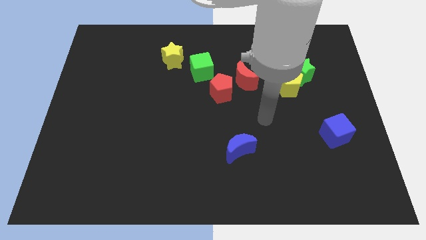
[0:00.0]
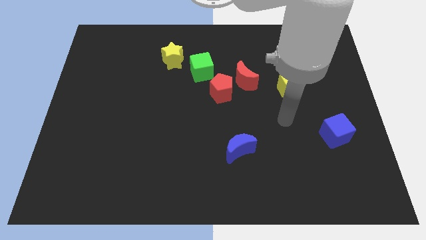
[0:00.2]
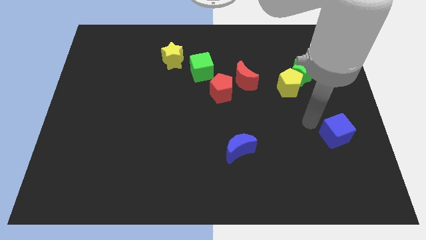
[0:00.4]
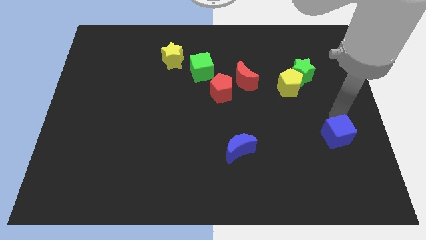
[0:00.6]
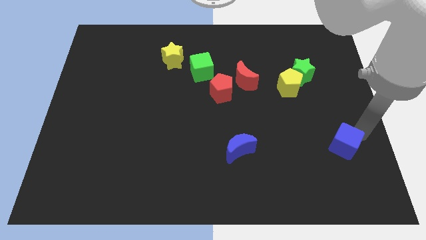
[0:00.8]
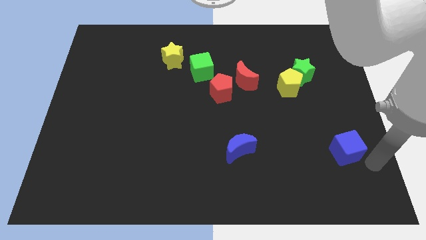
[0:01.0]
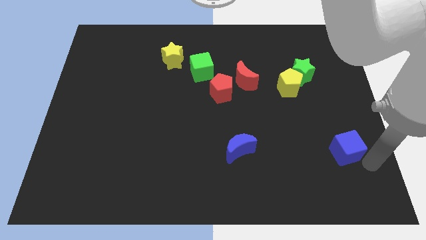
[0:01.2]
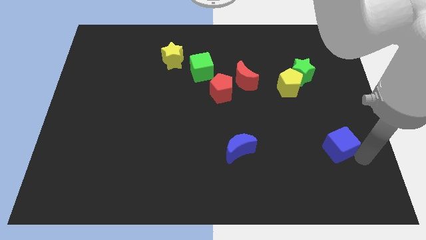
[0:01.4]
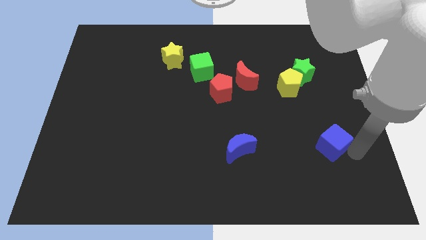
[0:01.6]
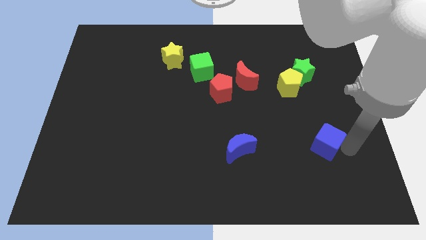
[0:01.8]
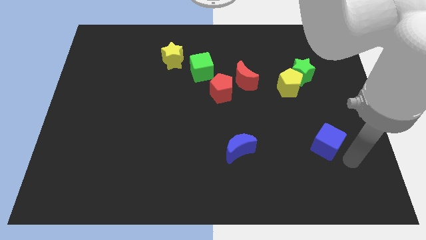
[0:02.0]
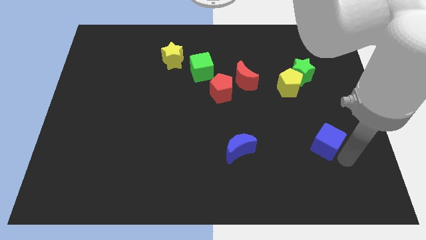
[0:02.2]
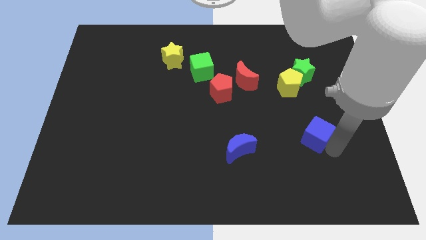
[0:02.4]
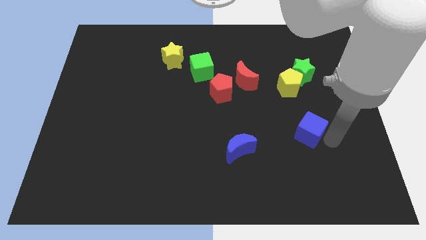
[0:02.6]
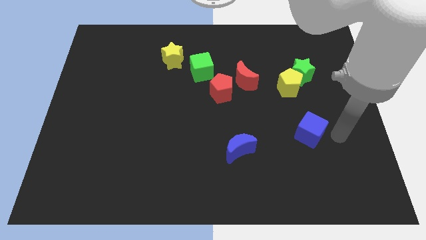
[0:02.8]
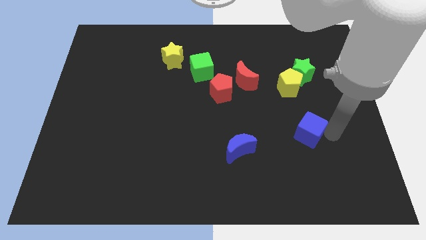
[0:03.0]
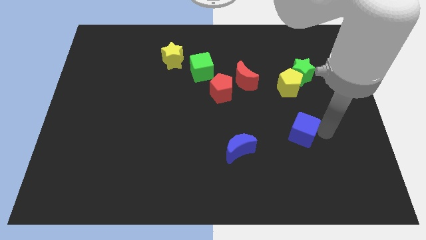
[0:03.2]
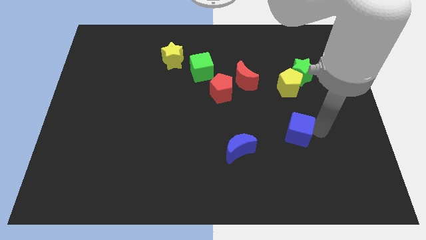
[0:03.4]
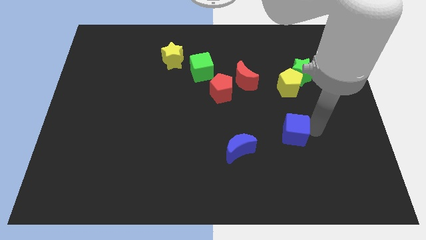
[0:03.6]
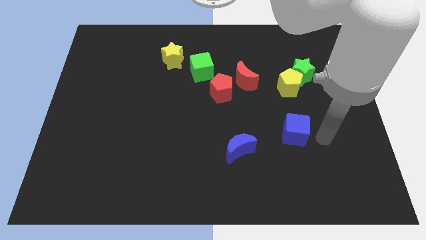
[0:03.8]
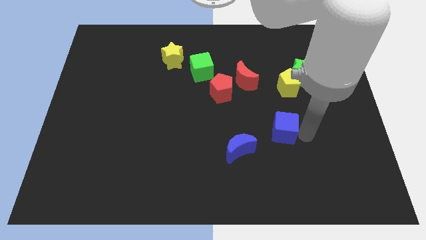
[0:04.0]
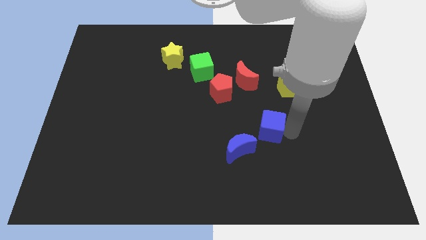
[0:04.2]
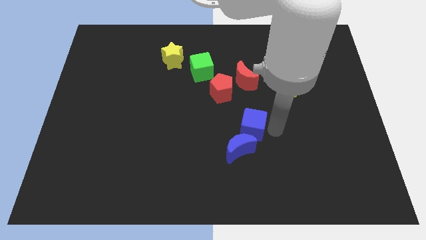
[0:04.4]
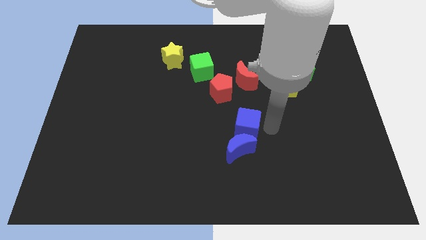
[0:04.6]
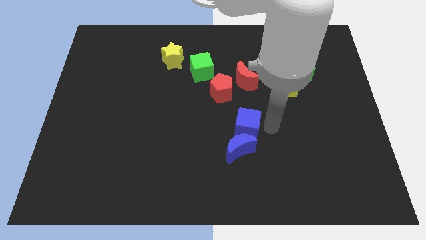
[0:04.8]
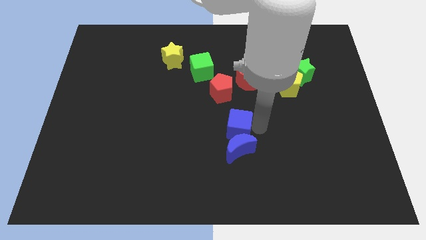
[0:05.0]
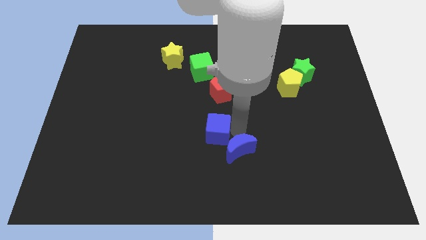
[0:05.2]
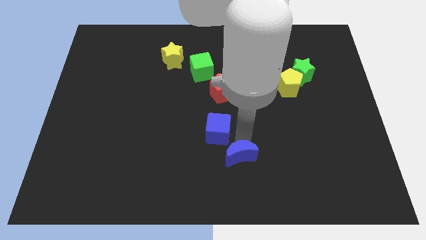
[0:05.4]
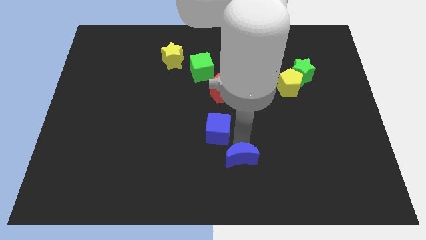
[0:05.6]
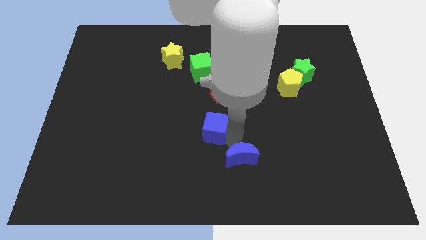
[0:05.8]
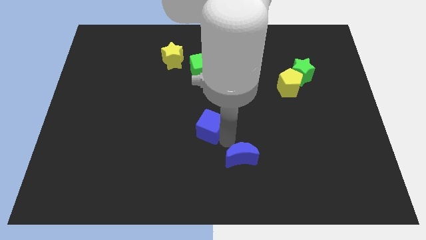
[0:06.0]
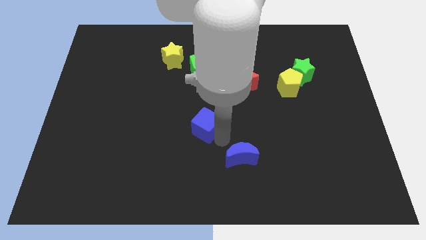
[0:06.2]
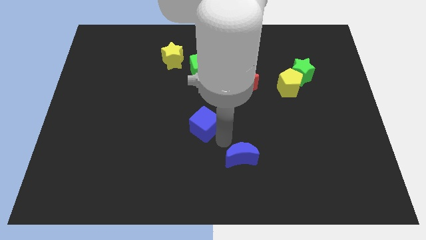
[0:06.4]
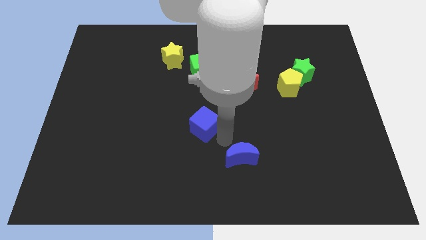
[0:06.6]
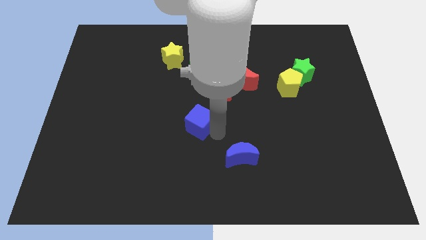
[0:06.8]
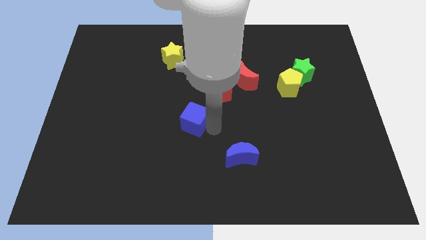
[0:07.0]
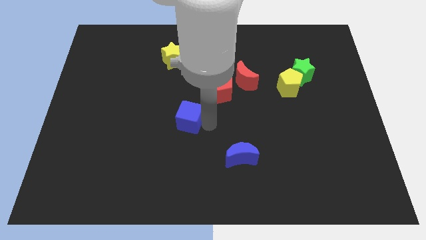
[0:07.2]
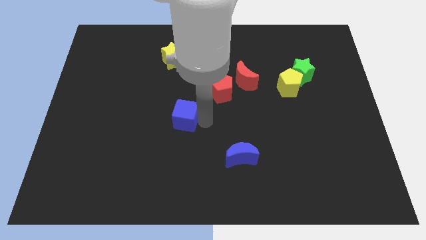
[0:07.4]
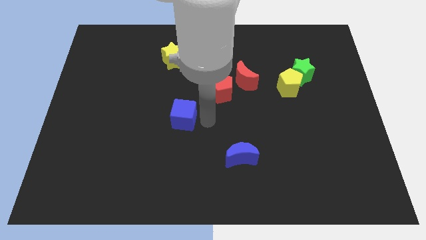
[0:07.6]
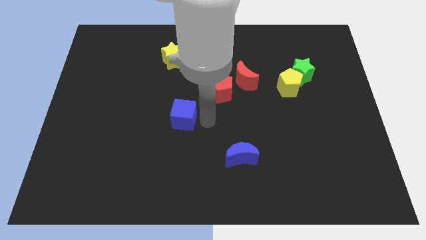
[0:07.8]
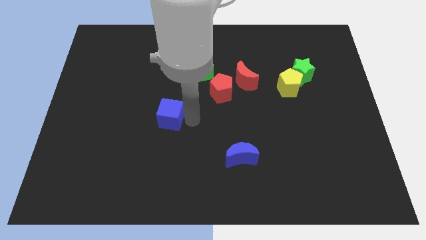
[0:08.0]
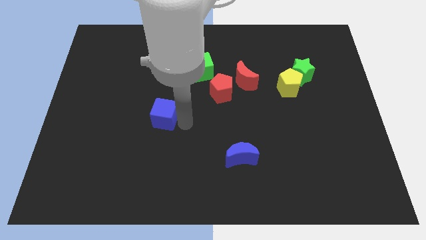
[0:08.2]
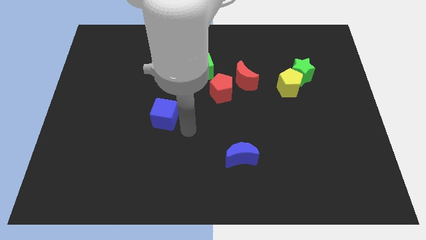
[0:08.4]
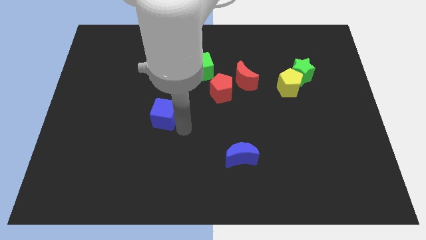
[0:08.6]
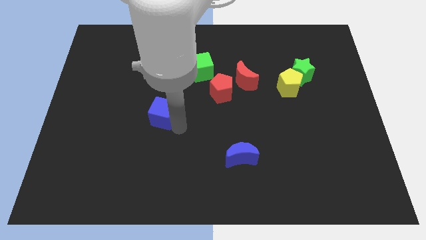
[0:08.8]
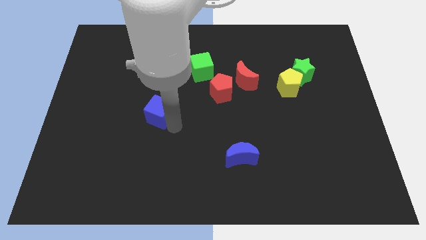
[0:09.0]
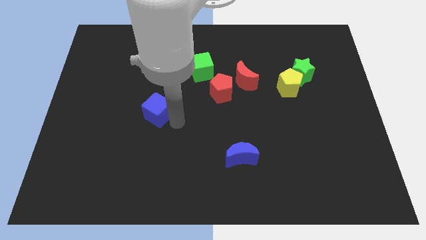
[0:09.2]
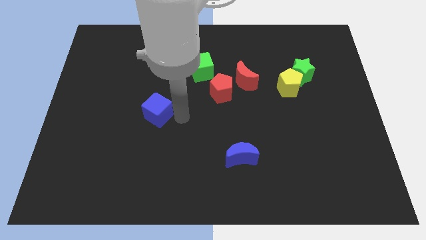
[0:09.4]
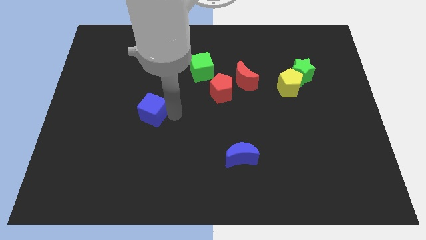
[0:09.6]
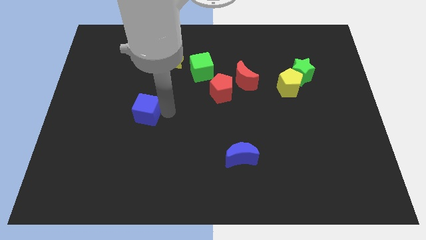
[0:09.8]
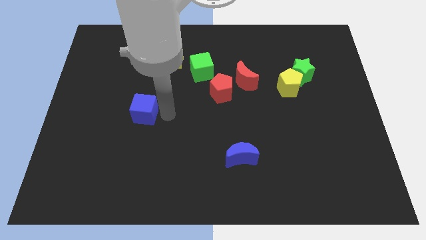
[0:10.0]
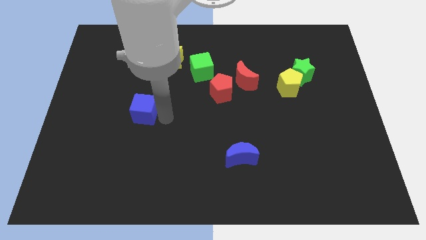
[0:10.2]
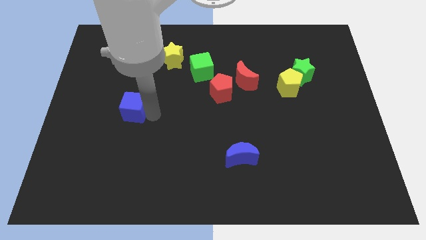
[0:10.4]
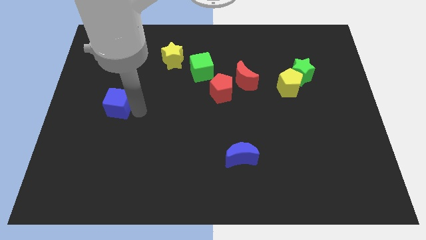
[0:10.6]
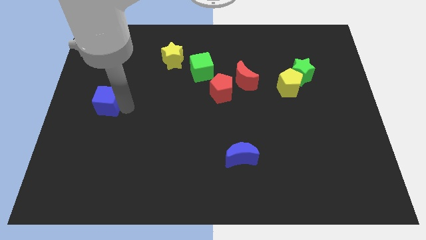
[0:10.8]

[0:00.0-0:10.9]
slide the blue cube to the center left

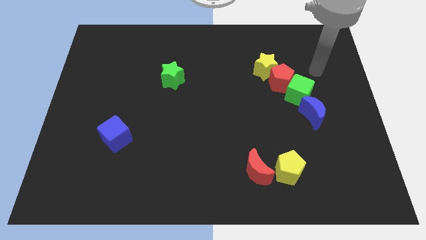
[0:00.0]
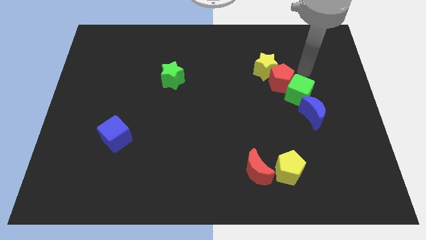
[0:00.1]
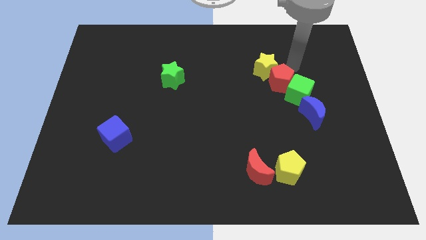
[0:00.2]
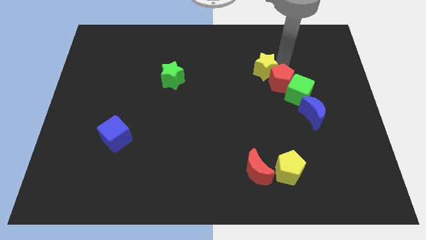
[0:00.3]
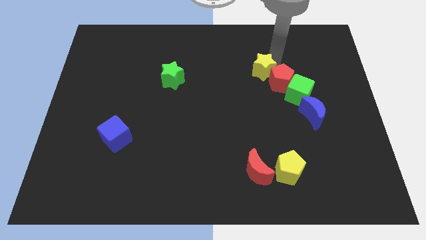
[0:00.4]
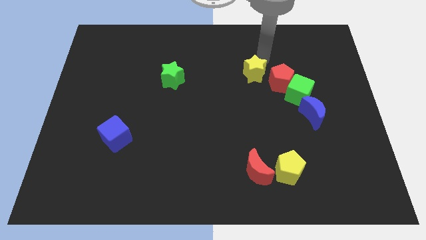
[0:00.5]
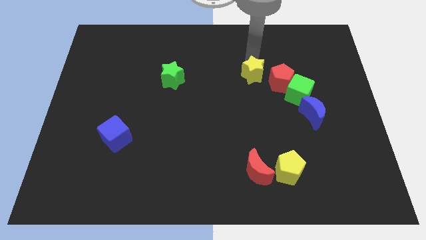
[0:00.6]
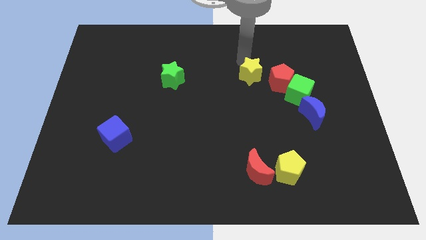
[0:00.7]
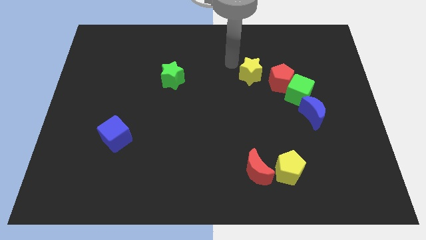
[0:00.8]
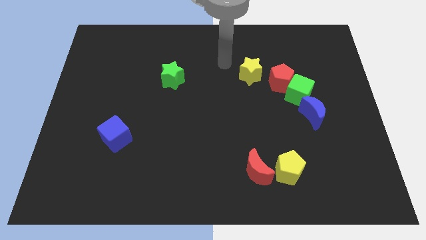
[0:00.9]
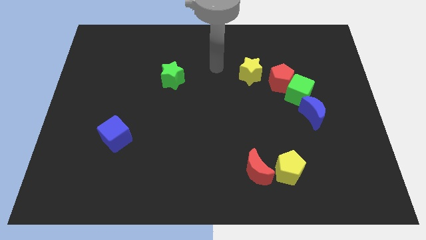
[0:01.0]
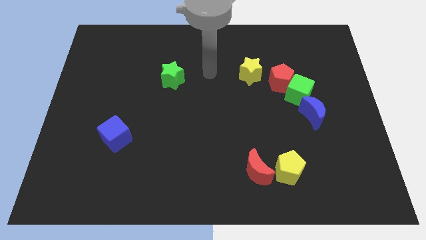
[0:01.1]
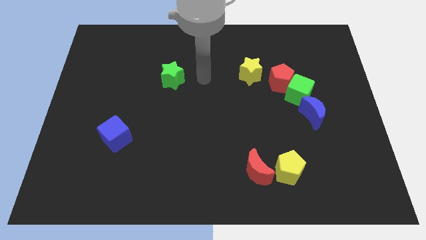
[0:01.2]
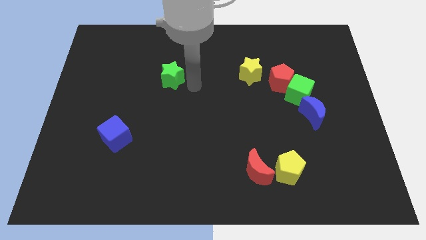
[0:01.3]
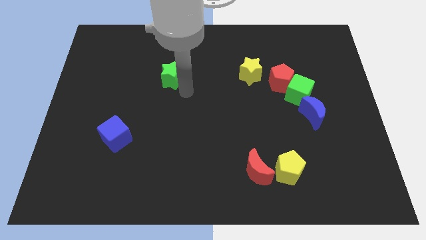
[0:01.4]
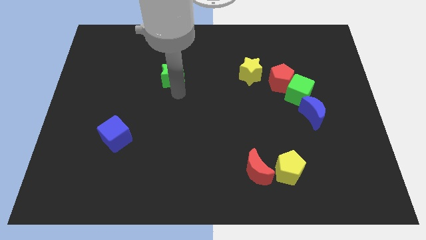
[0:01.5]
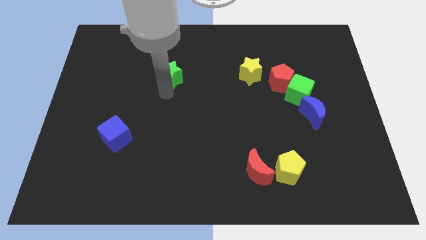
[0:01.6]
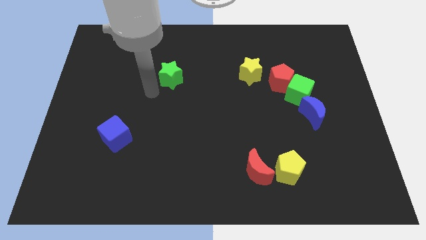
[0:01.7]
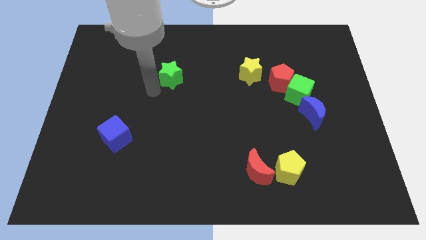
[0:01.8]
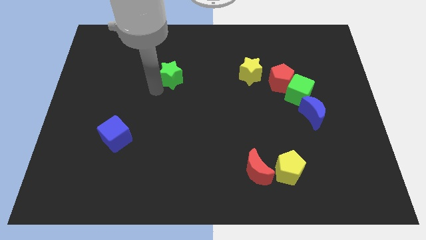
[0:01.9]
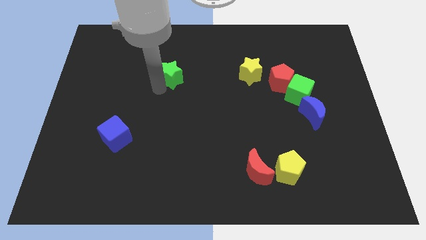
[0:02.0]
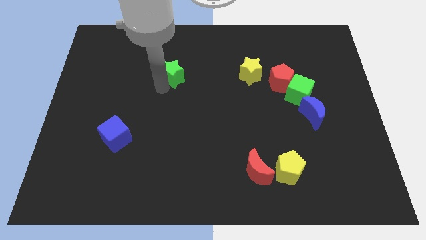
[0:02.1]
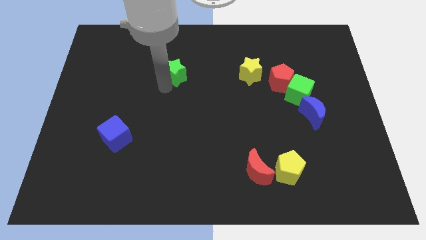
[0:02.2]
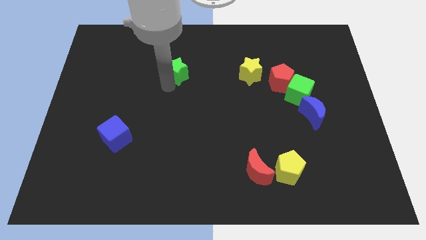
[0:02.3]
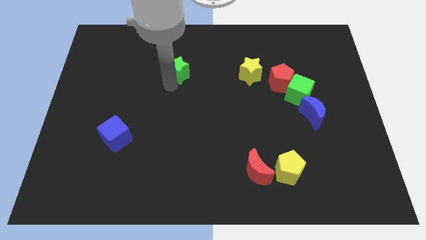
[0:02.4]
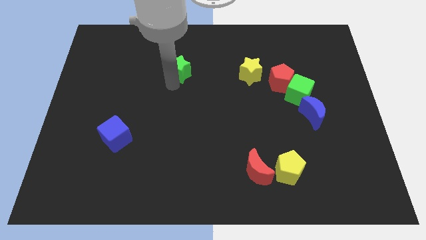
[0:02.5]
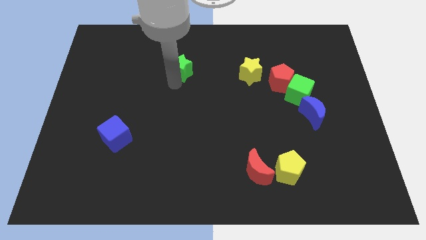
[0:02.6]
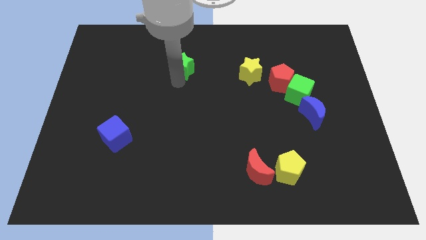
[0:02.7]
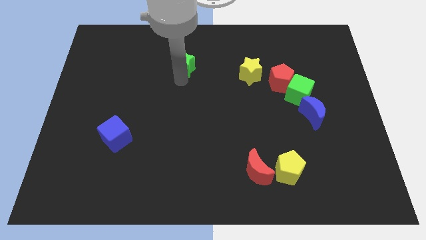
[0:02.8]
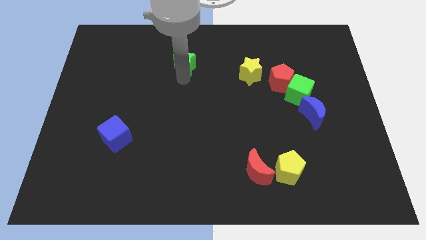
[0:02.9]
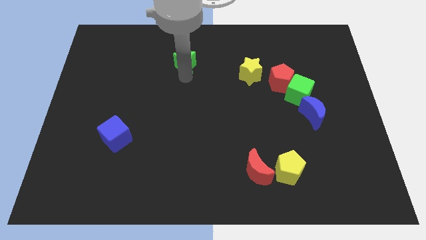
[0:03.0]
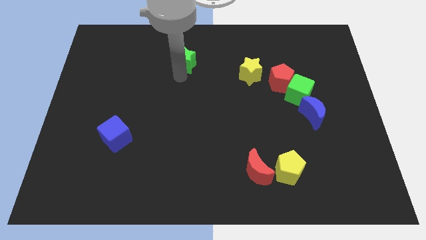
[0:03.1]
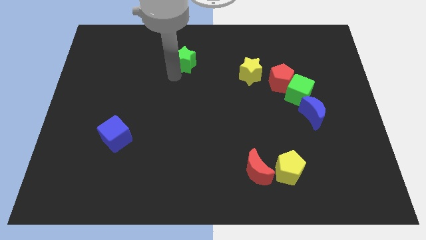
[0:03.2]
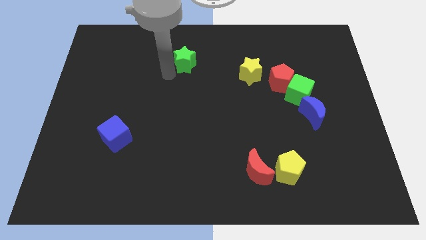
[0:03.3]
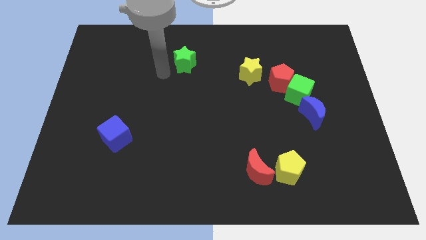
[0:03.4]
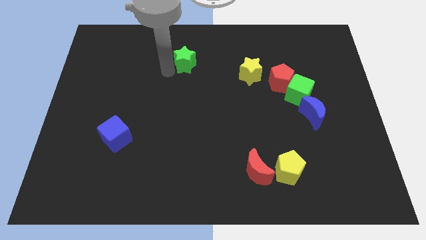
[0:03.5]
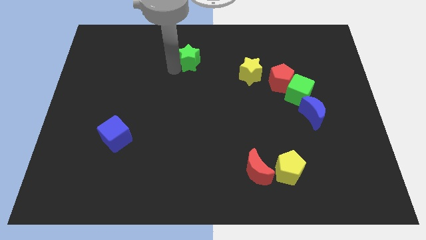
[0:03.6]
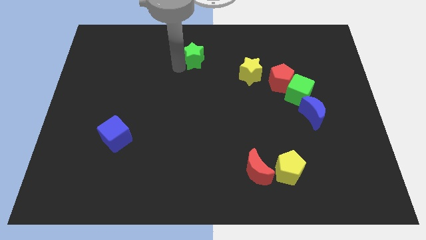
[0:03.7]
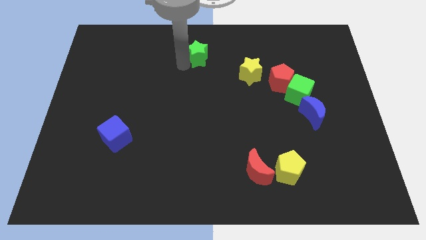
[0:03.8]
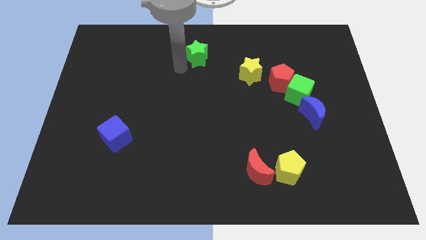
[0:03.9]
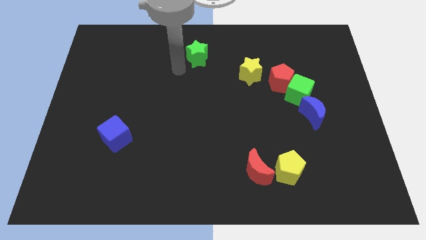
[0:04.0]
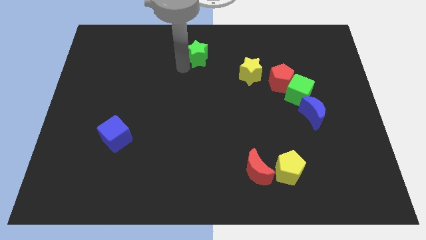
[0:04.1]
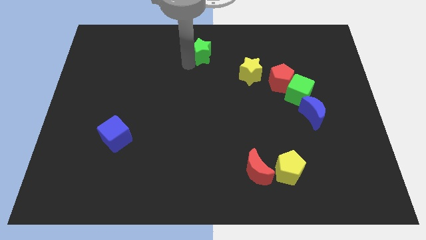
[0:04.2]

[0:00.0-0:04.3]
slide the green star to the top side
